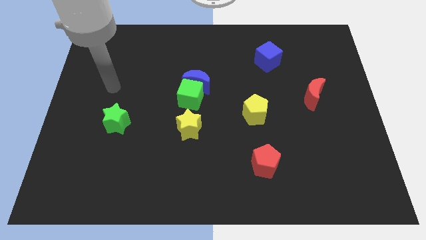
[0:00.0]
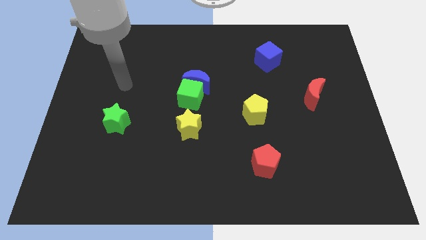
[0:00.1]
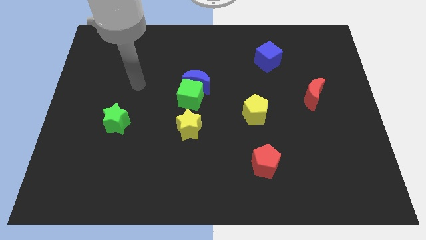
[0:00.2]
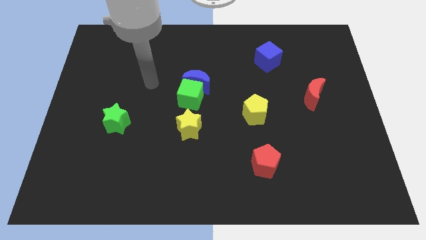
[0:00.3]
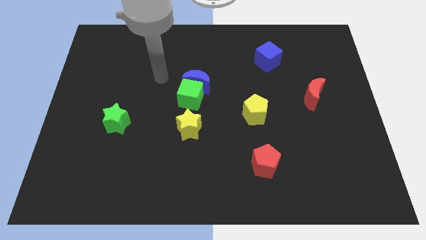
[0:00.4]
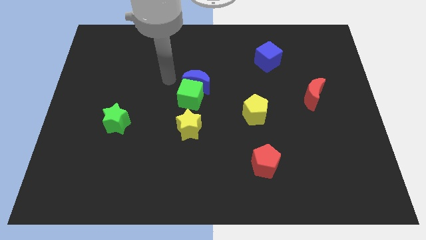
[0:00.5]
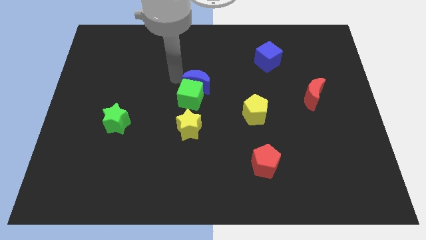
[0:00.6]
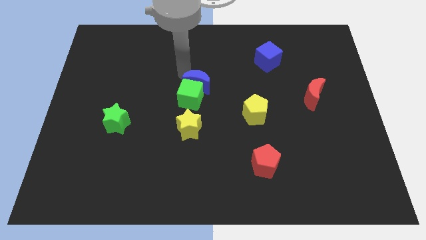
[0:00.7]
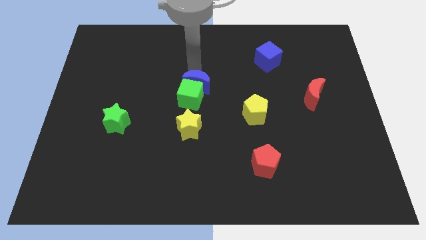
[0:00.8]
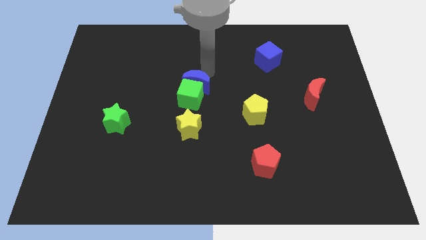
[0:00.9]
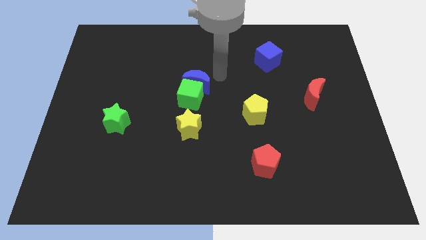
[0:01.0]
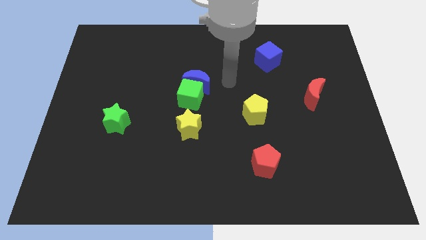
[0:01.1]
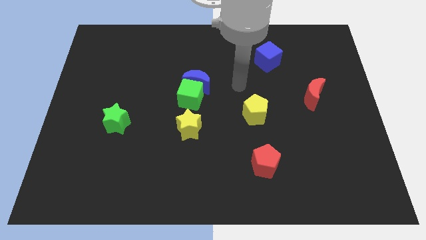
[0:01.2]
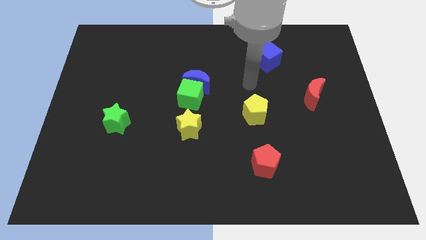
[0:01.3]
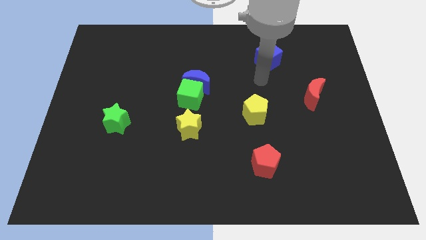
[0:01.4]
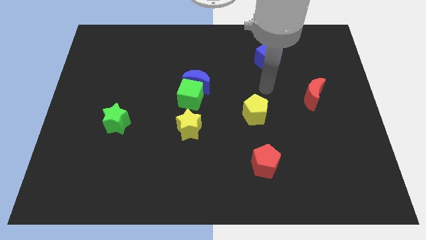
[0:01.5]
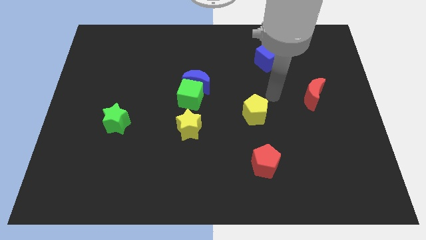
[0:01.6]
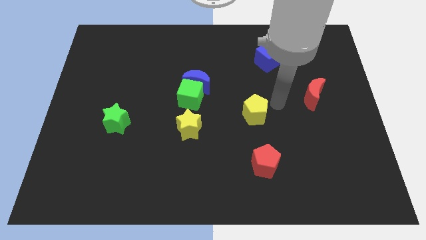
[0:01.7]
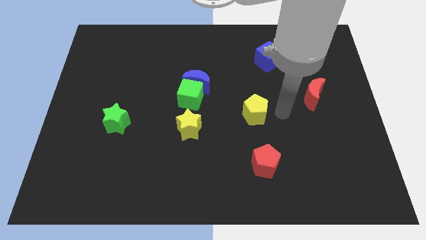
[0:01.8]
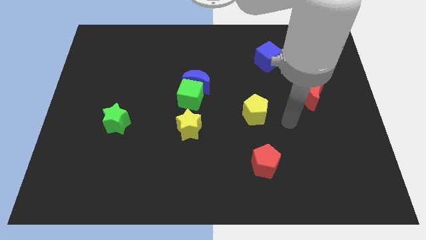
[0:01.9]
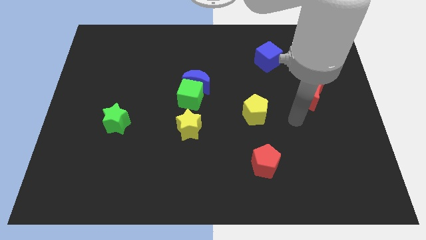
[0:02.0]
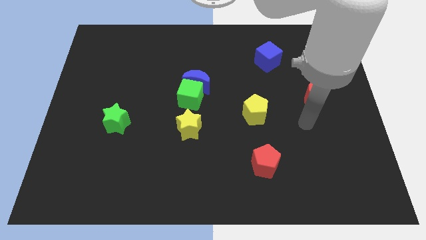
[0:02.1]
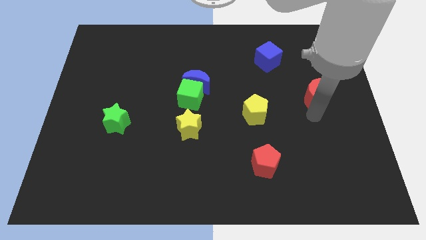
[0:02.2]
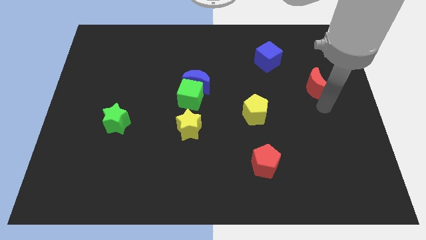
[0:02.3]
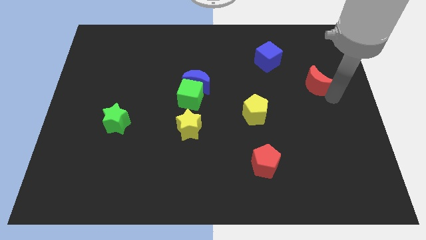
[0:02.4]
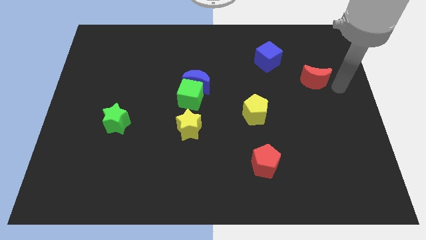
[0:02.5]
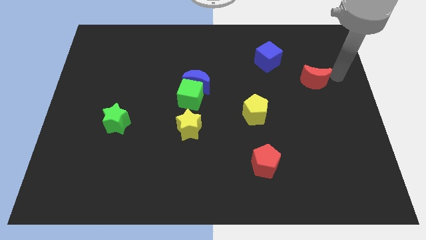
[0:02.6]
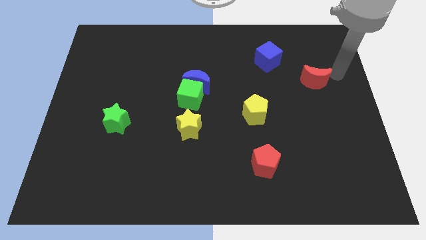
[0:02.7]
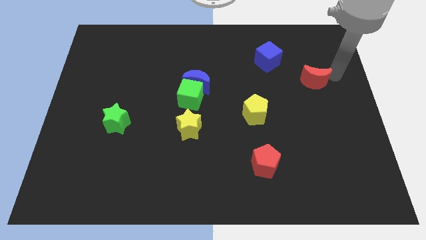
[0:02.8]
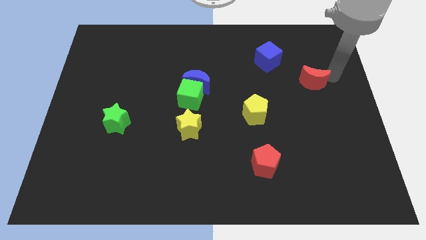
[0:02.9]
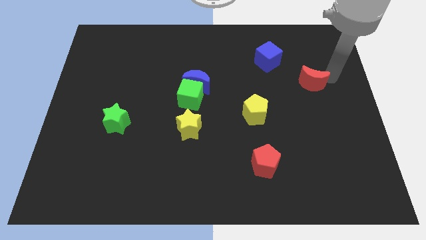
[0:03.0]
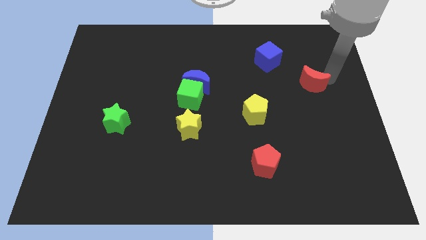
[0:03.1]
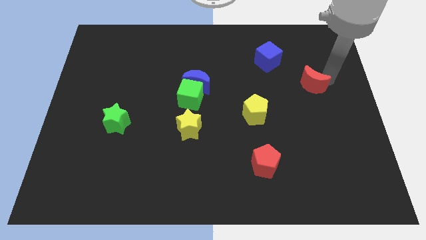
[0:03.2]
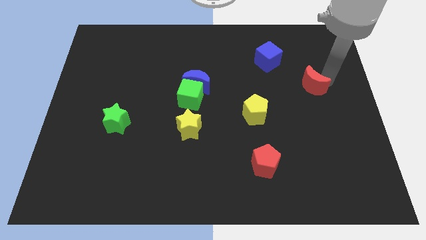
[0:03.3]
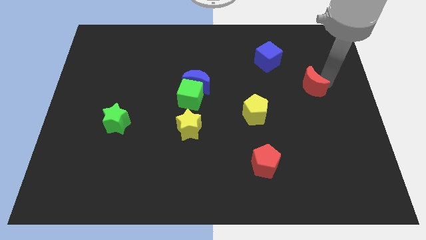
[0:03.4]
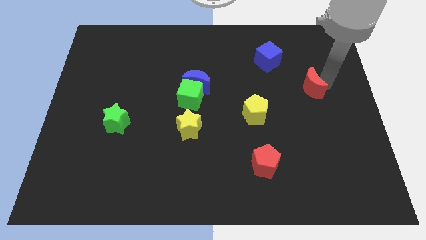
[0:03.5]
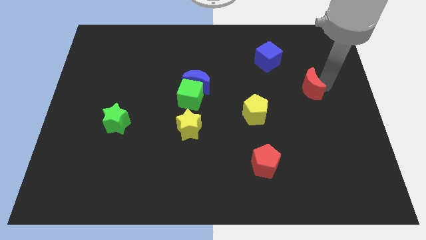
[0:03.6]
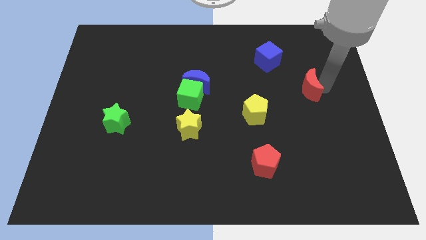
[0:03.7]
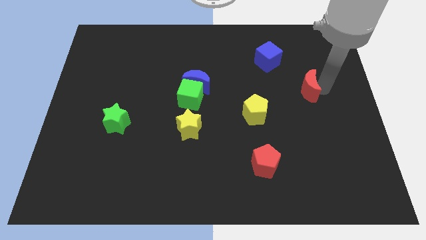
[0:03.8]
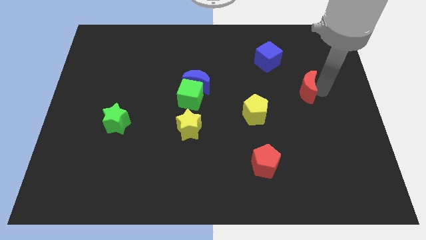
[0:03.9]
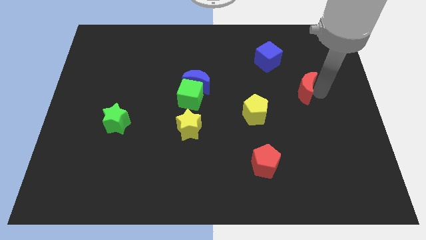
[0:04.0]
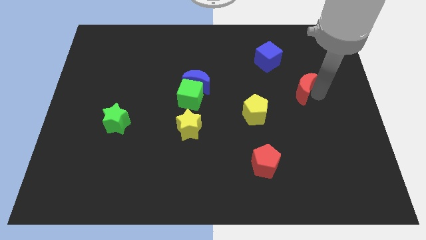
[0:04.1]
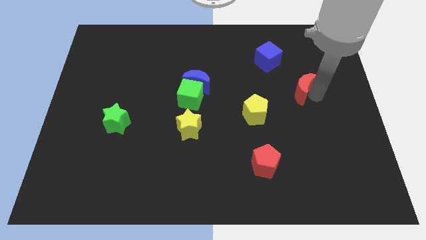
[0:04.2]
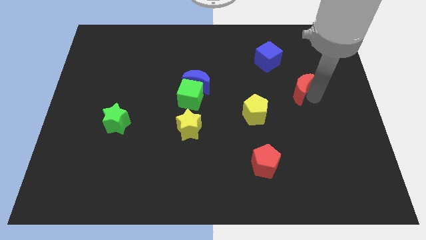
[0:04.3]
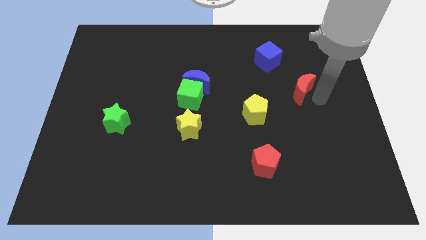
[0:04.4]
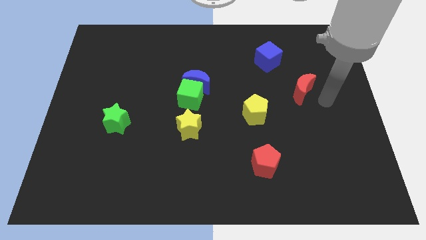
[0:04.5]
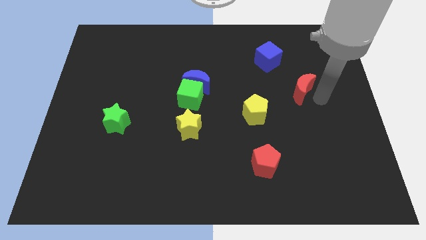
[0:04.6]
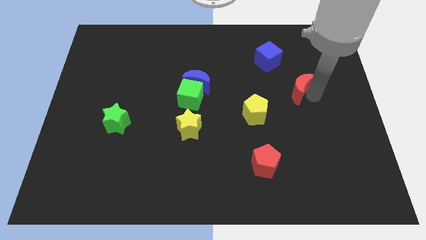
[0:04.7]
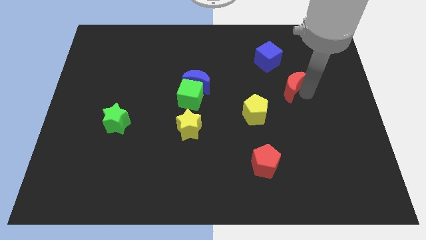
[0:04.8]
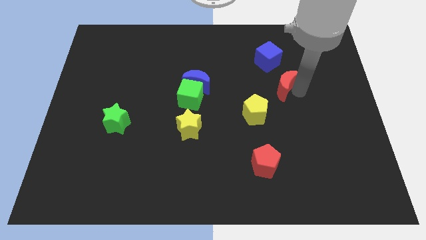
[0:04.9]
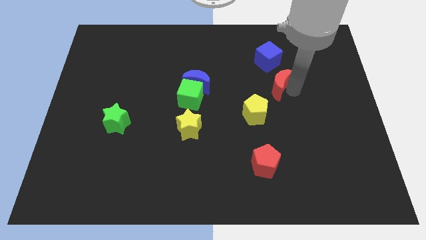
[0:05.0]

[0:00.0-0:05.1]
push the red moon a little up and to the left diagonally

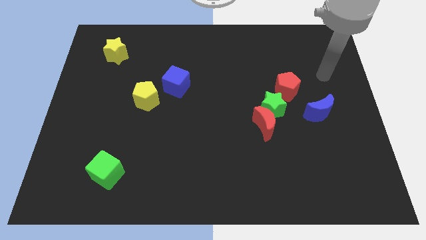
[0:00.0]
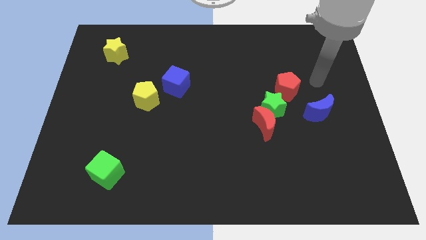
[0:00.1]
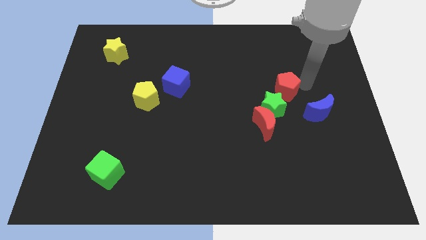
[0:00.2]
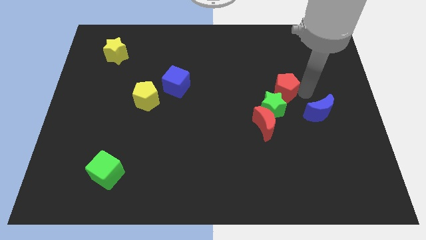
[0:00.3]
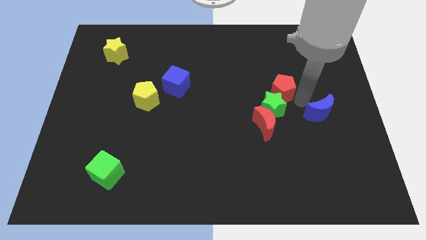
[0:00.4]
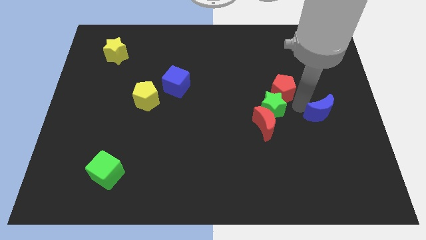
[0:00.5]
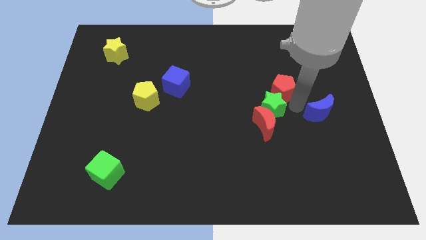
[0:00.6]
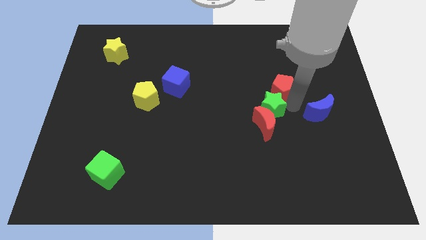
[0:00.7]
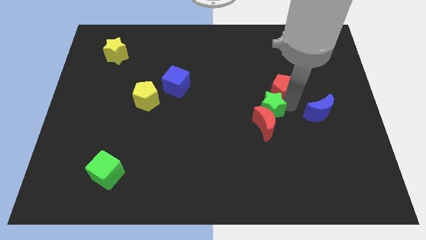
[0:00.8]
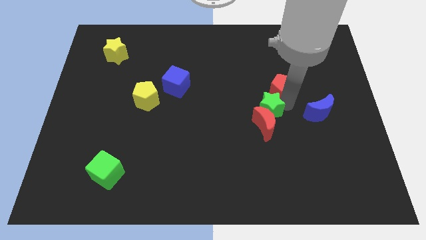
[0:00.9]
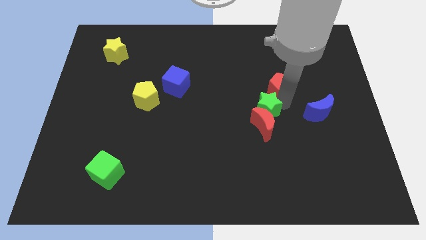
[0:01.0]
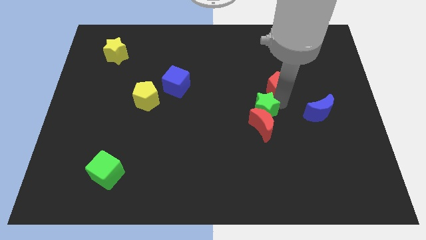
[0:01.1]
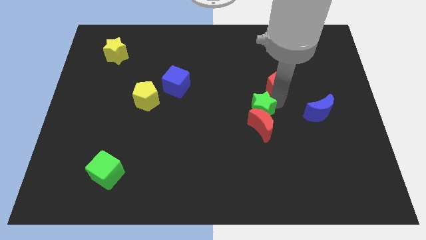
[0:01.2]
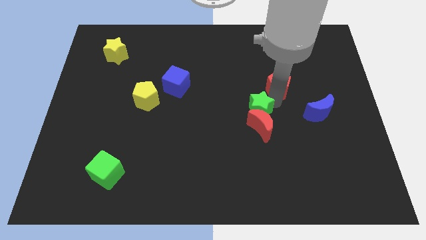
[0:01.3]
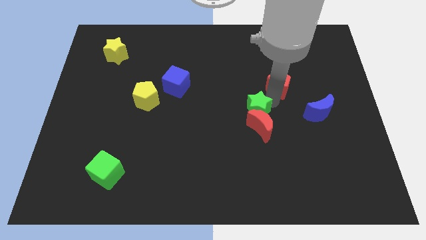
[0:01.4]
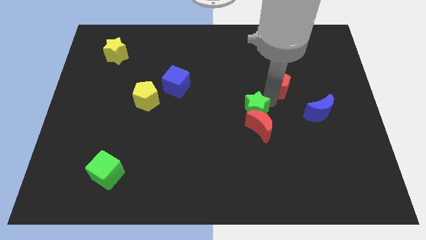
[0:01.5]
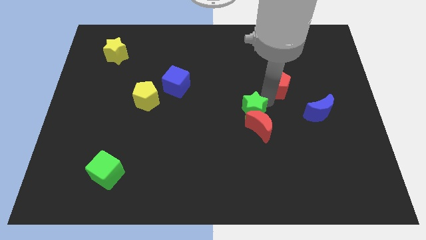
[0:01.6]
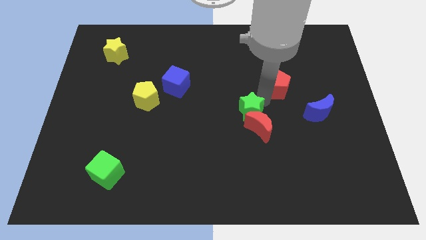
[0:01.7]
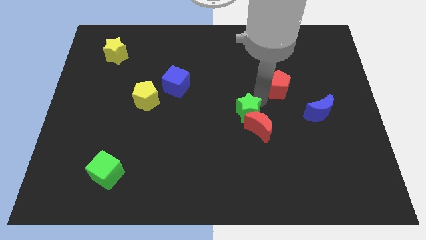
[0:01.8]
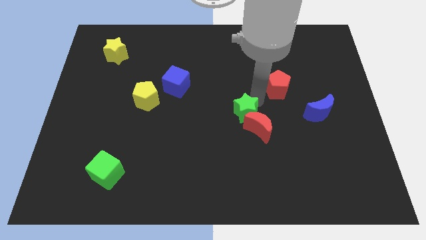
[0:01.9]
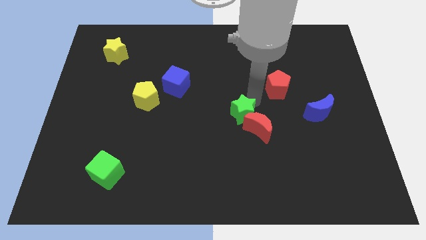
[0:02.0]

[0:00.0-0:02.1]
push the green star to the left a little

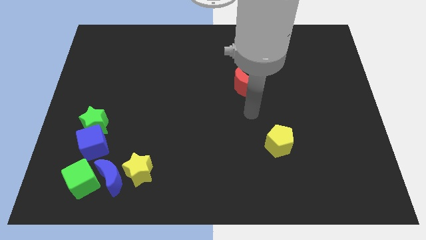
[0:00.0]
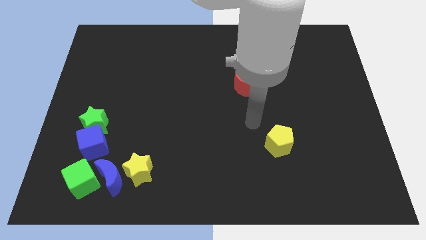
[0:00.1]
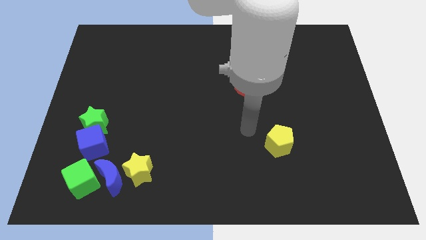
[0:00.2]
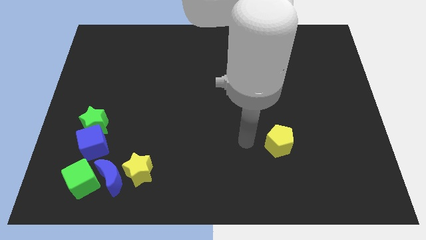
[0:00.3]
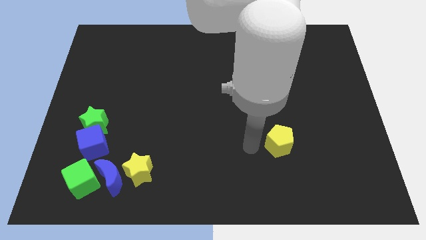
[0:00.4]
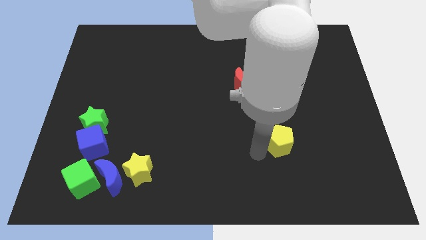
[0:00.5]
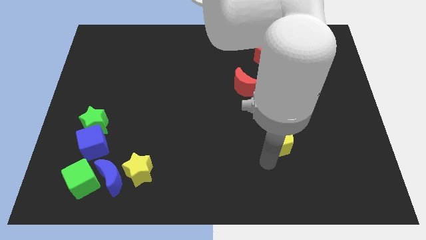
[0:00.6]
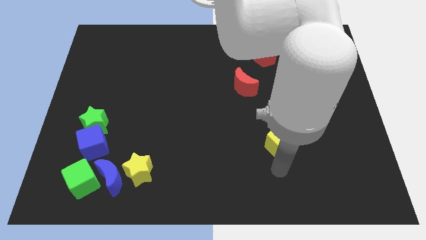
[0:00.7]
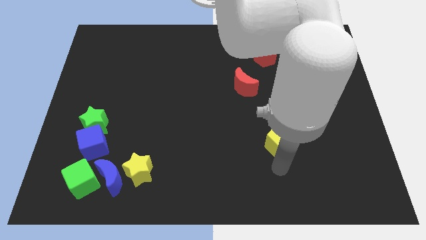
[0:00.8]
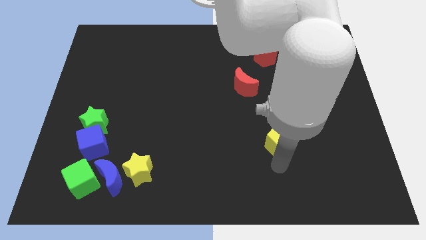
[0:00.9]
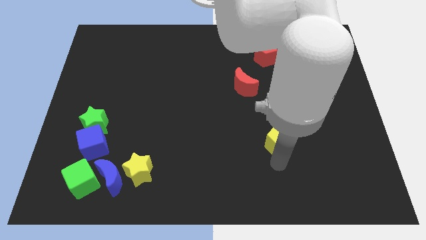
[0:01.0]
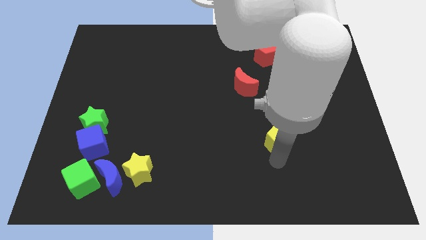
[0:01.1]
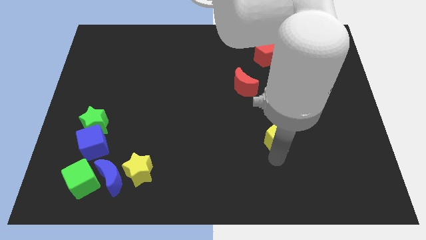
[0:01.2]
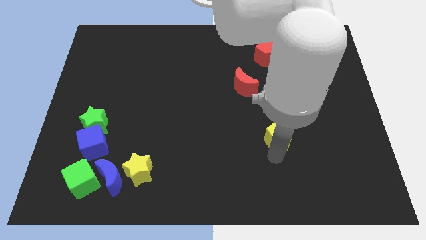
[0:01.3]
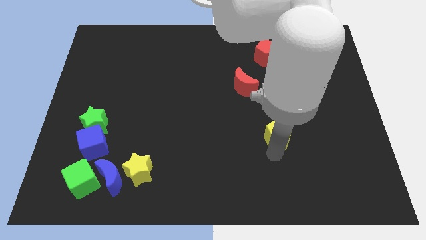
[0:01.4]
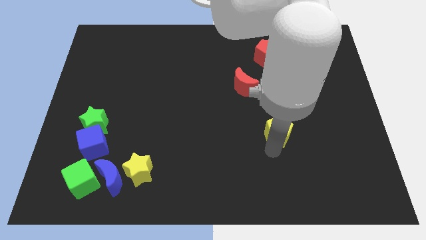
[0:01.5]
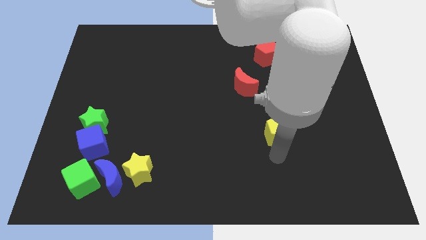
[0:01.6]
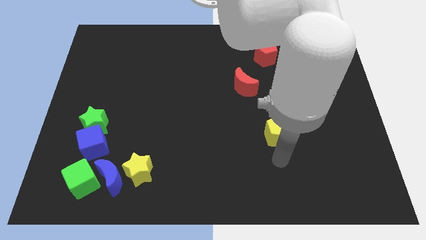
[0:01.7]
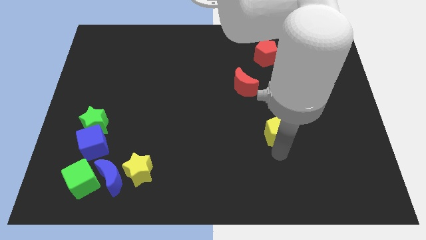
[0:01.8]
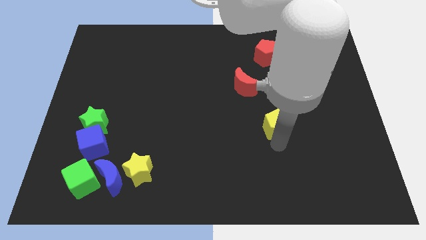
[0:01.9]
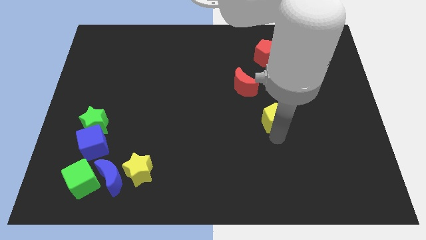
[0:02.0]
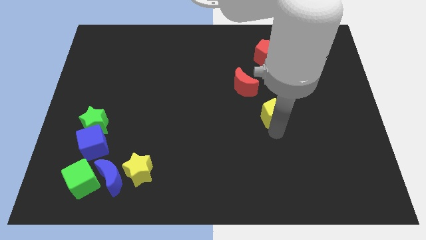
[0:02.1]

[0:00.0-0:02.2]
push the yellow pentagon upwards a bit
